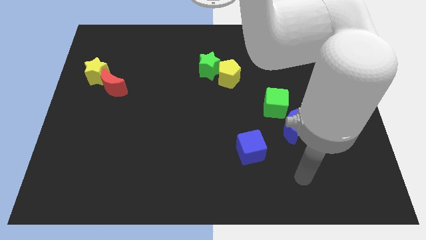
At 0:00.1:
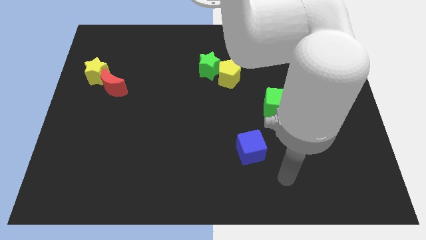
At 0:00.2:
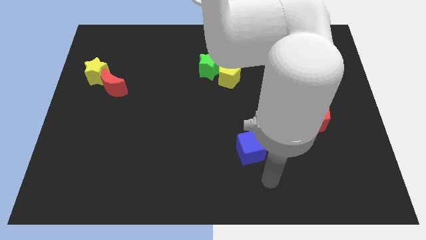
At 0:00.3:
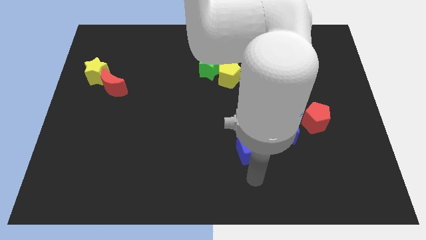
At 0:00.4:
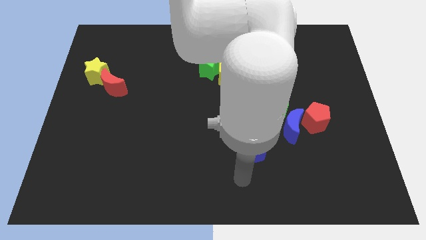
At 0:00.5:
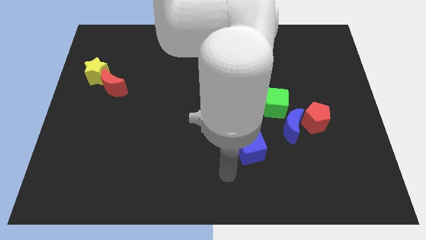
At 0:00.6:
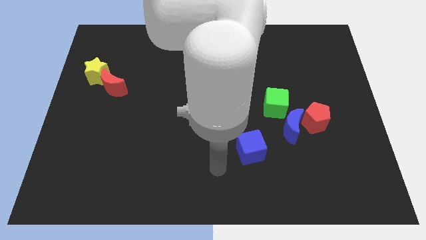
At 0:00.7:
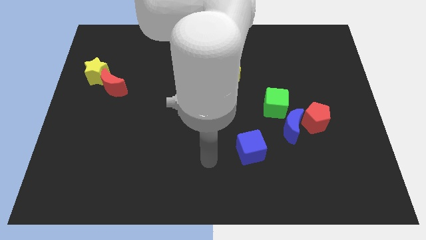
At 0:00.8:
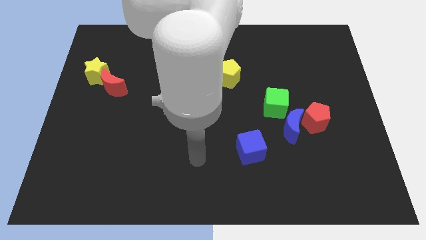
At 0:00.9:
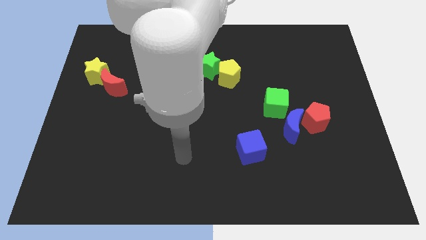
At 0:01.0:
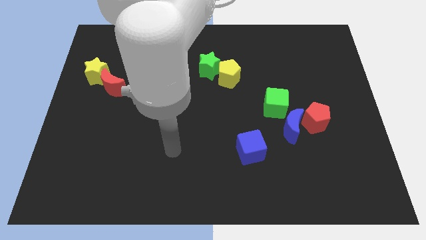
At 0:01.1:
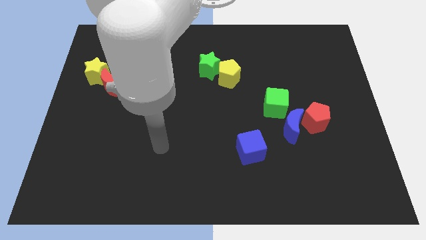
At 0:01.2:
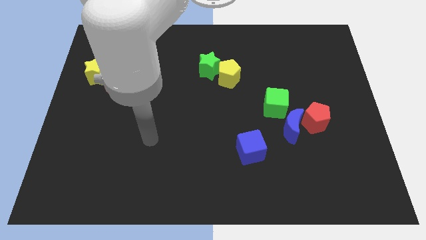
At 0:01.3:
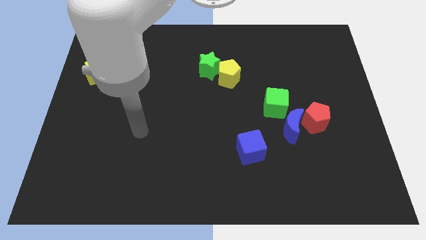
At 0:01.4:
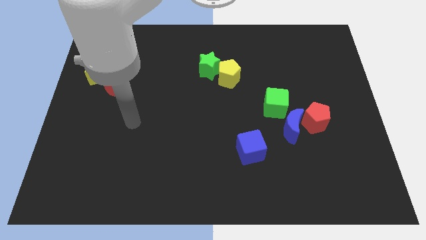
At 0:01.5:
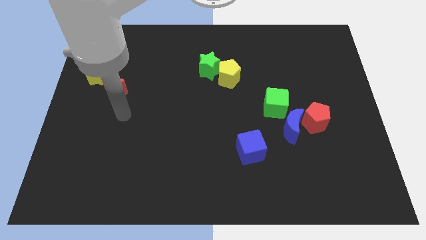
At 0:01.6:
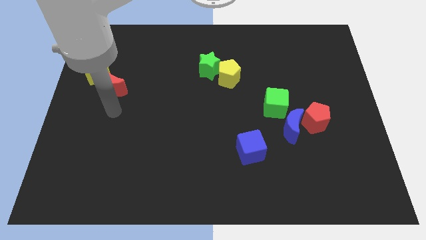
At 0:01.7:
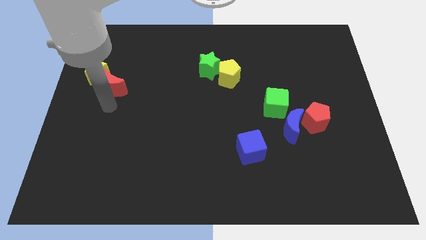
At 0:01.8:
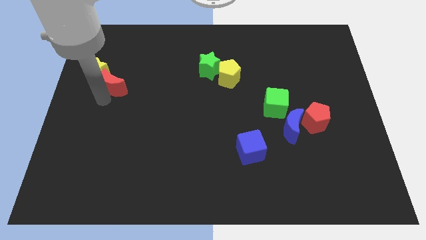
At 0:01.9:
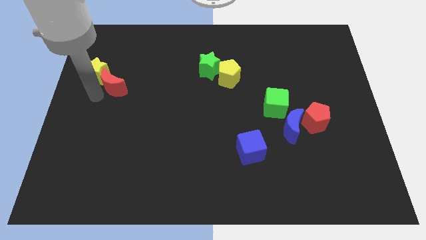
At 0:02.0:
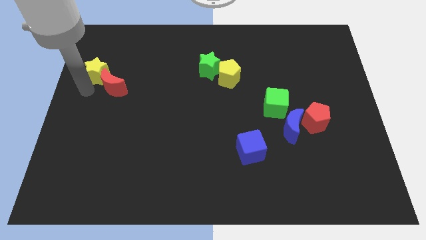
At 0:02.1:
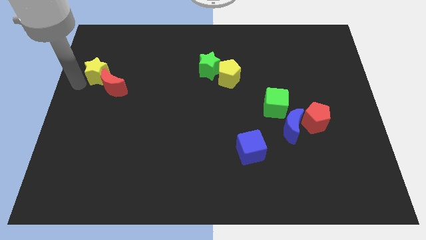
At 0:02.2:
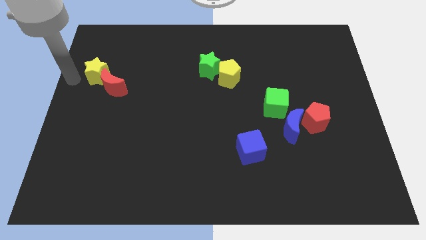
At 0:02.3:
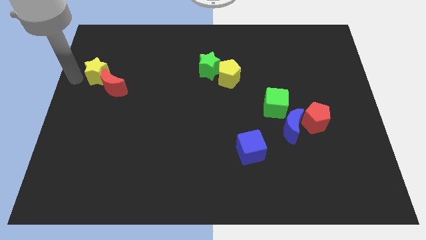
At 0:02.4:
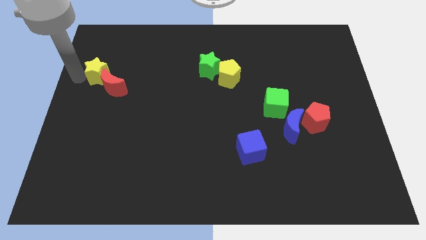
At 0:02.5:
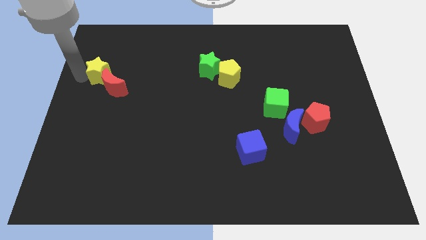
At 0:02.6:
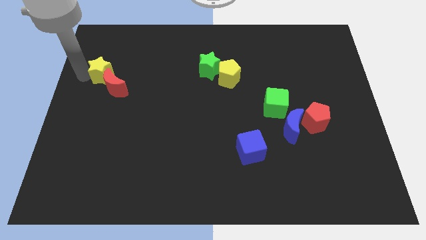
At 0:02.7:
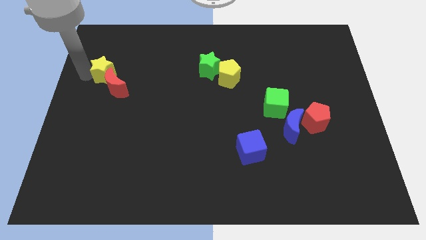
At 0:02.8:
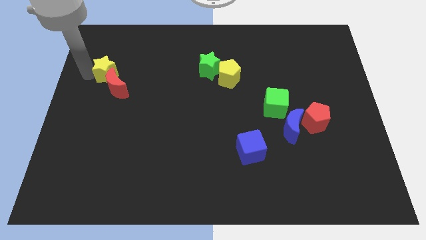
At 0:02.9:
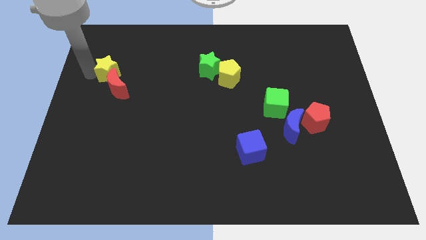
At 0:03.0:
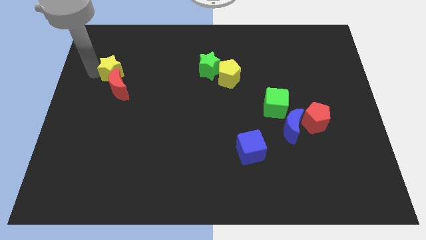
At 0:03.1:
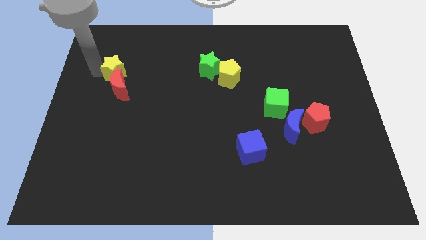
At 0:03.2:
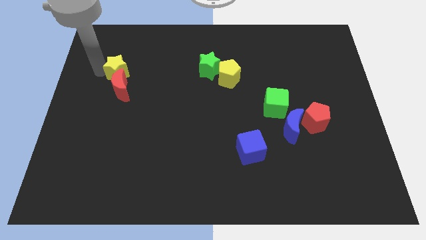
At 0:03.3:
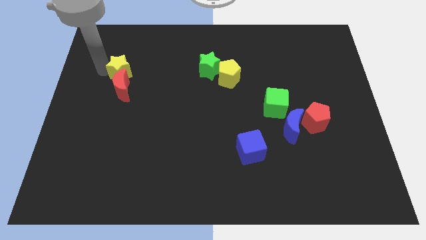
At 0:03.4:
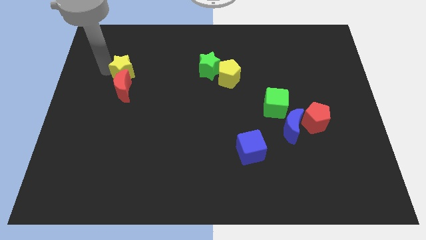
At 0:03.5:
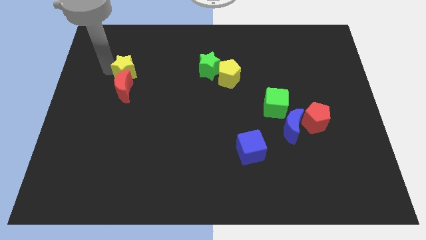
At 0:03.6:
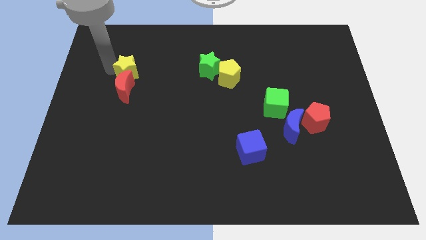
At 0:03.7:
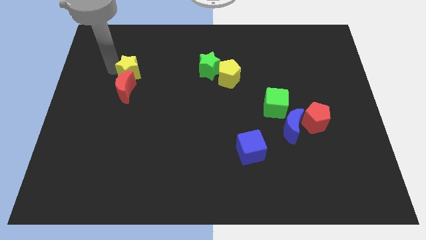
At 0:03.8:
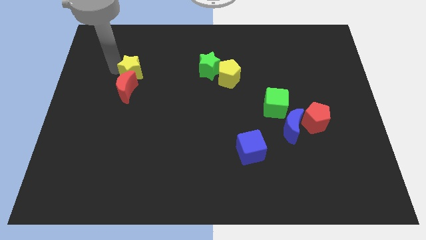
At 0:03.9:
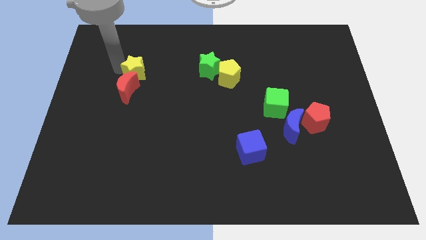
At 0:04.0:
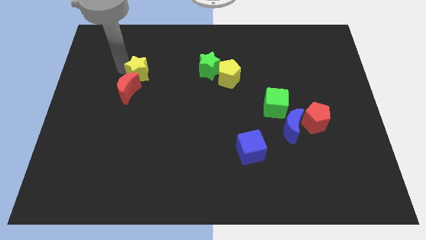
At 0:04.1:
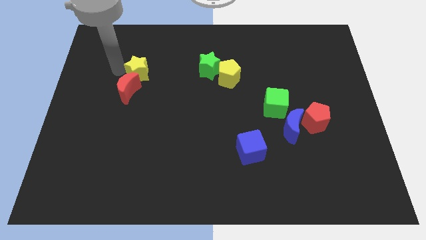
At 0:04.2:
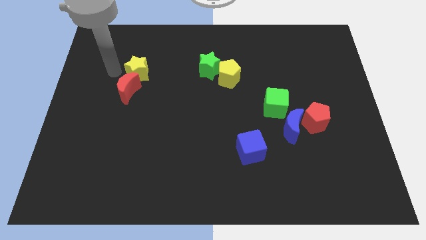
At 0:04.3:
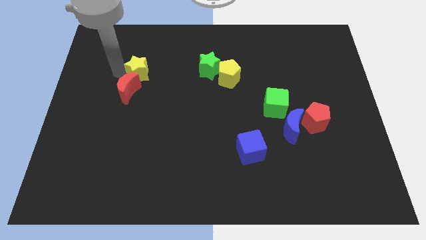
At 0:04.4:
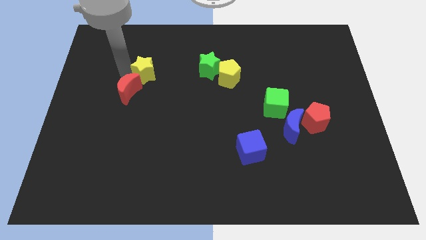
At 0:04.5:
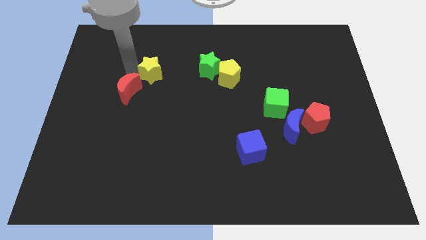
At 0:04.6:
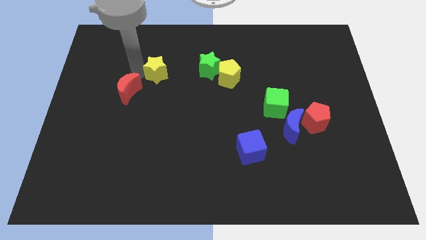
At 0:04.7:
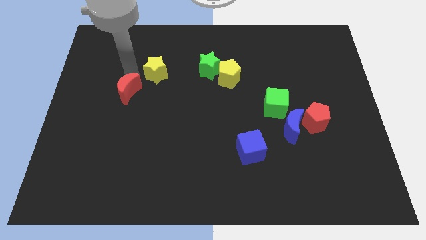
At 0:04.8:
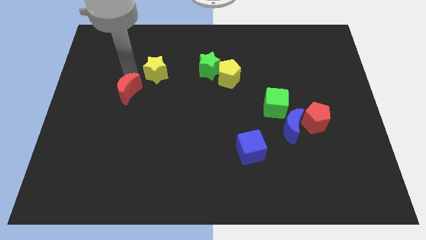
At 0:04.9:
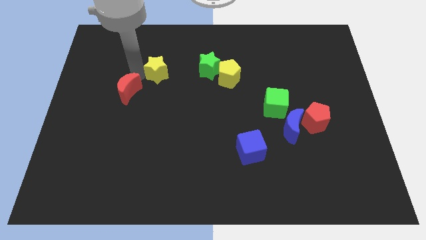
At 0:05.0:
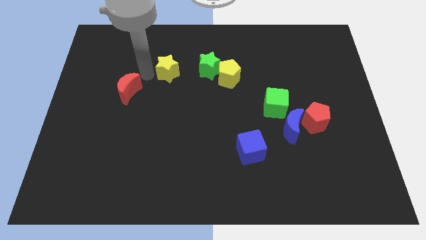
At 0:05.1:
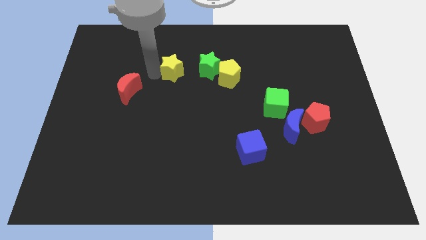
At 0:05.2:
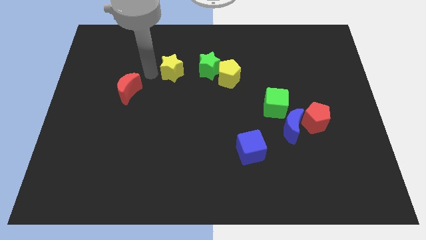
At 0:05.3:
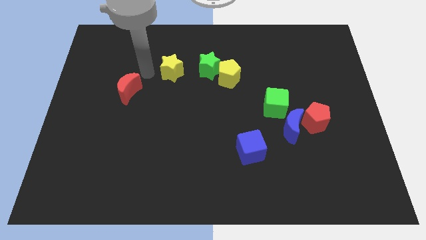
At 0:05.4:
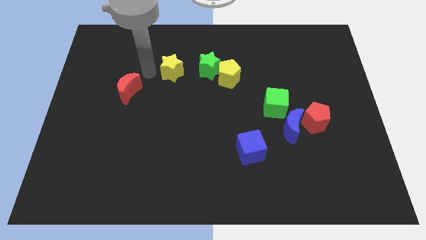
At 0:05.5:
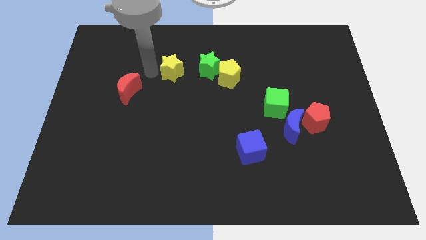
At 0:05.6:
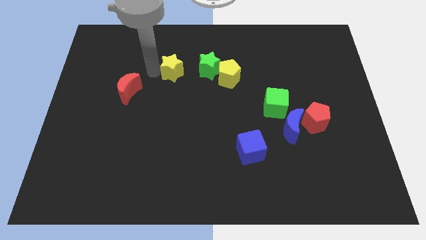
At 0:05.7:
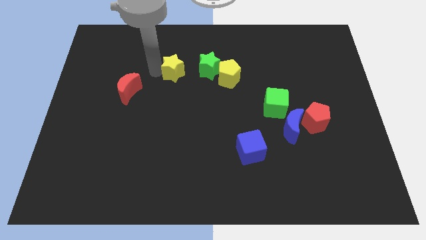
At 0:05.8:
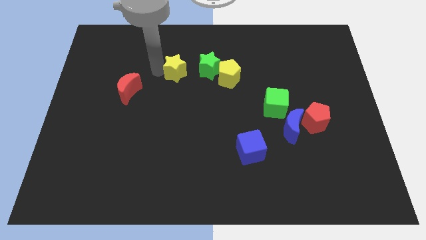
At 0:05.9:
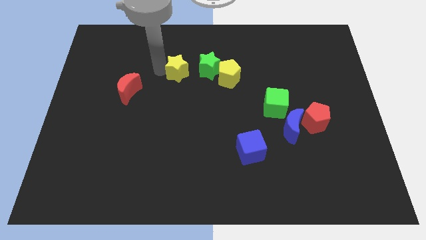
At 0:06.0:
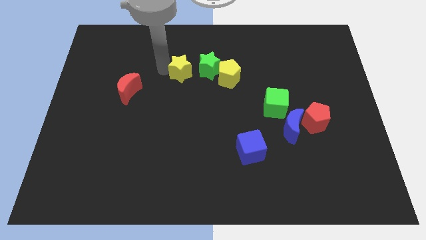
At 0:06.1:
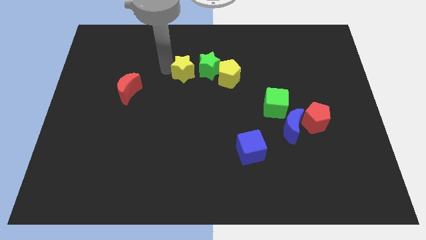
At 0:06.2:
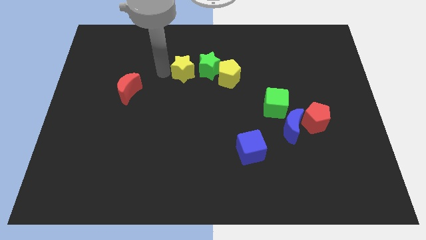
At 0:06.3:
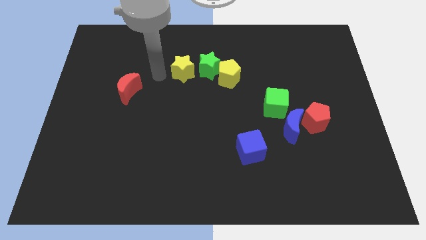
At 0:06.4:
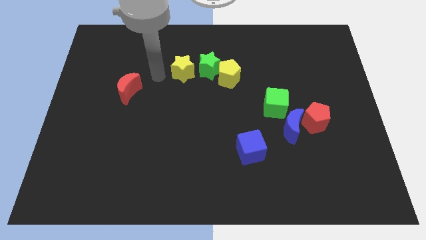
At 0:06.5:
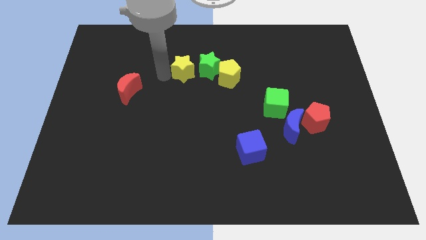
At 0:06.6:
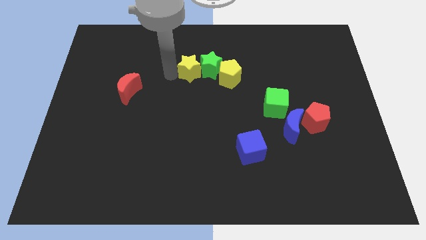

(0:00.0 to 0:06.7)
push the yellow star towards the green star
